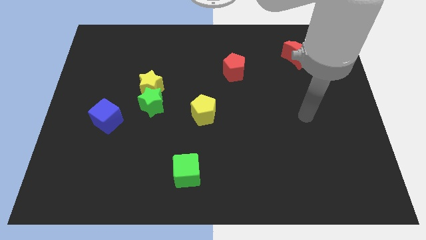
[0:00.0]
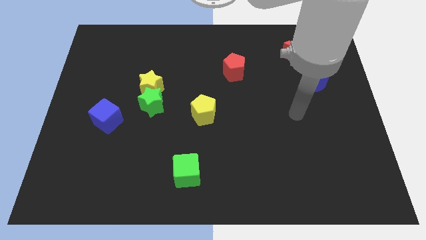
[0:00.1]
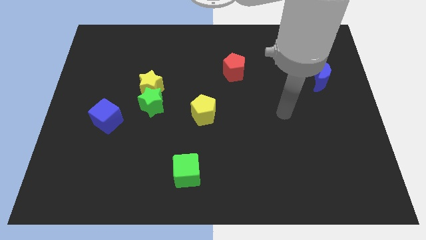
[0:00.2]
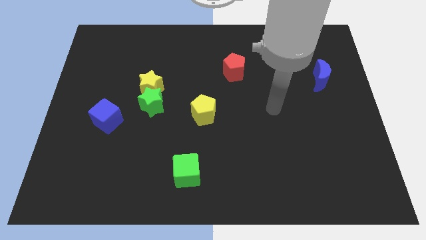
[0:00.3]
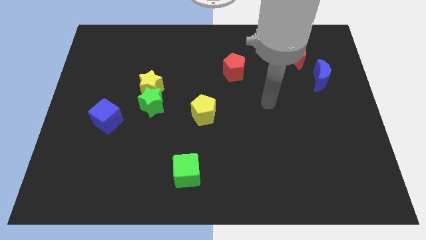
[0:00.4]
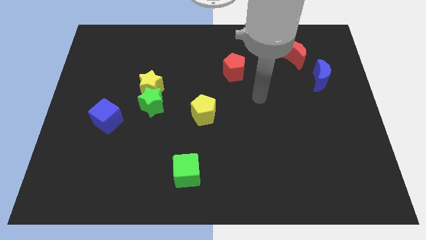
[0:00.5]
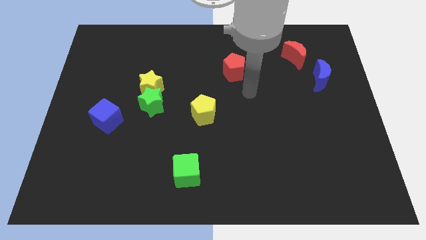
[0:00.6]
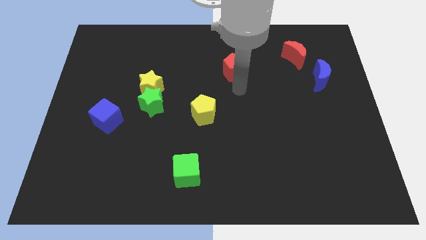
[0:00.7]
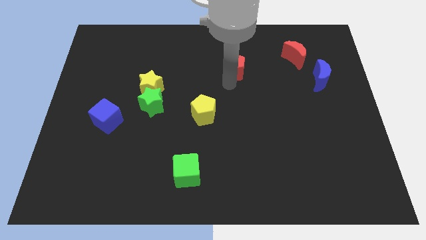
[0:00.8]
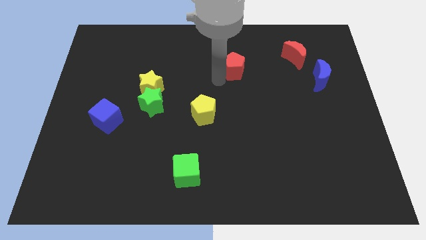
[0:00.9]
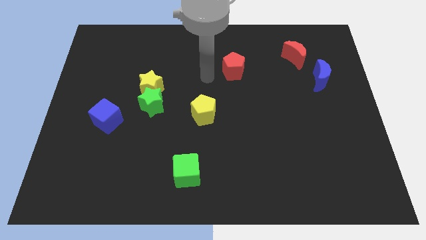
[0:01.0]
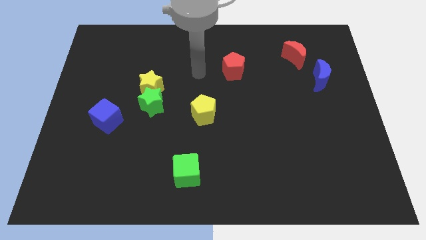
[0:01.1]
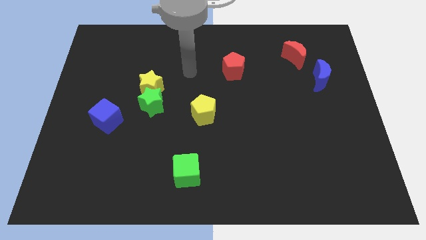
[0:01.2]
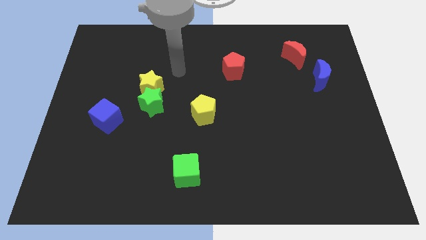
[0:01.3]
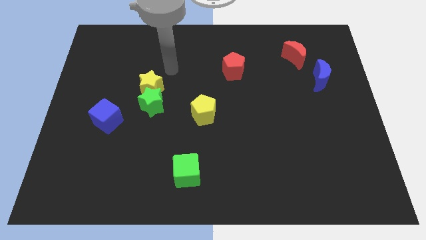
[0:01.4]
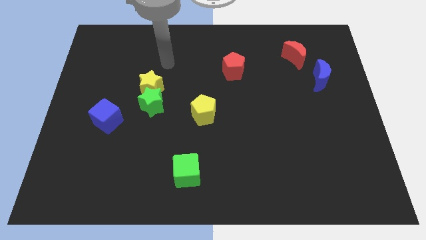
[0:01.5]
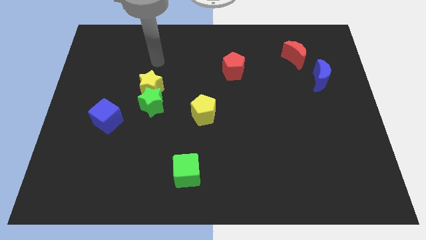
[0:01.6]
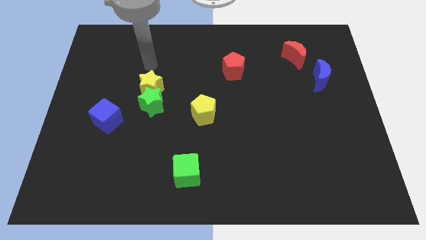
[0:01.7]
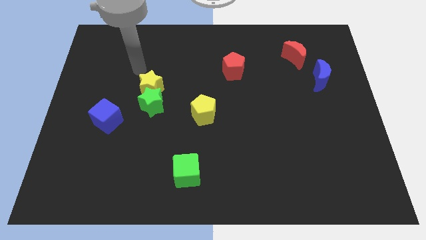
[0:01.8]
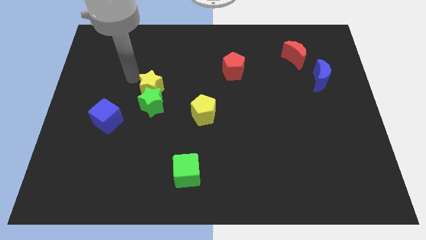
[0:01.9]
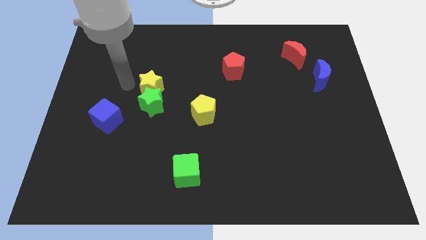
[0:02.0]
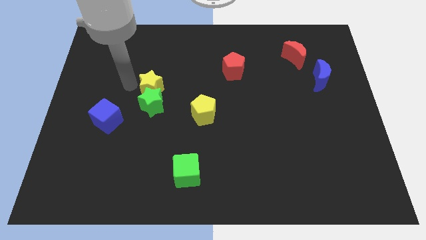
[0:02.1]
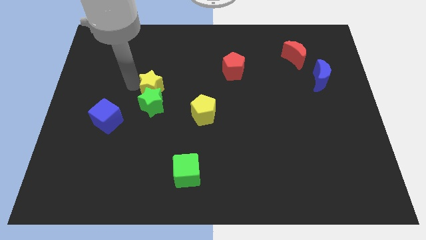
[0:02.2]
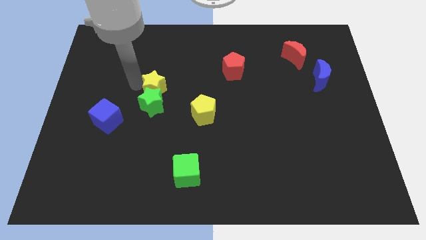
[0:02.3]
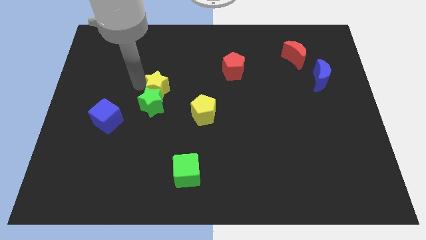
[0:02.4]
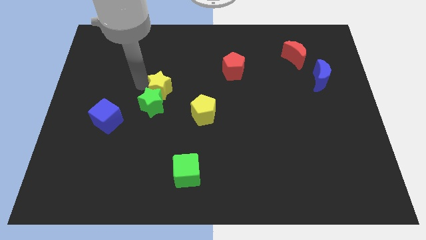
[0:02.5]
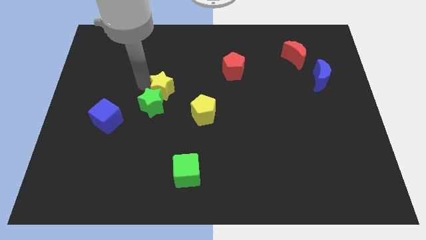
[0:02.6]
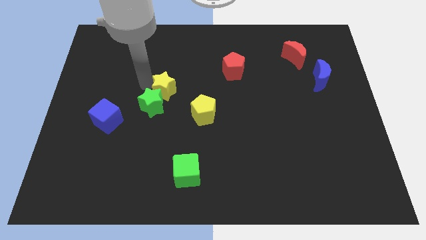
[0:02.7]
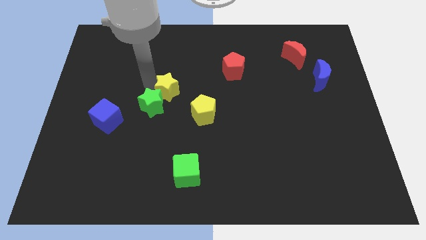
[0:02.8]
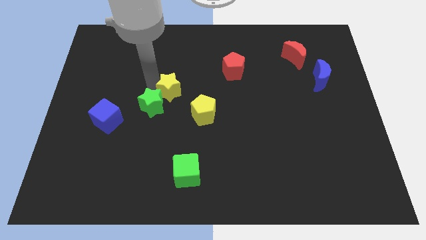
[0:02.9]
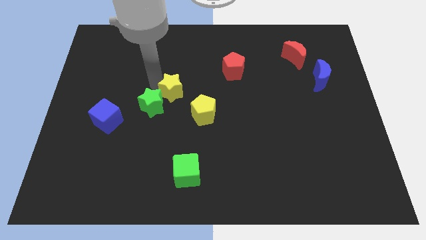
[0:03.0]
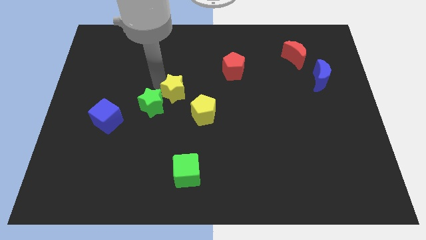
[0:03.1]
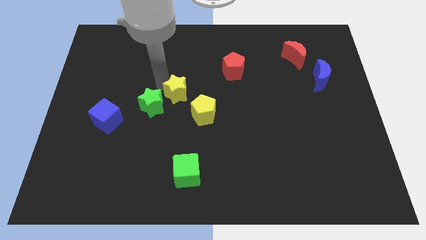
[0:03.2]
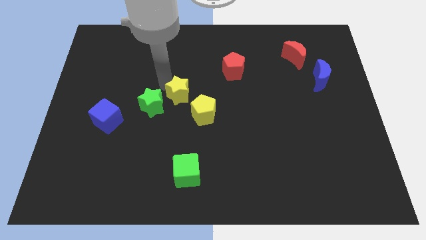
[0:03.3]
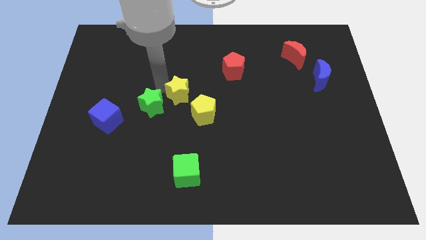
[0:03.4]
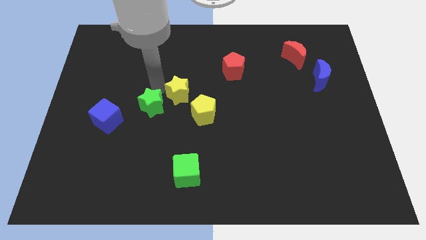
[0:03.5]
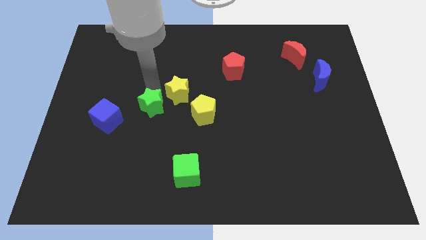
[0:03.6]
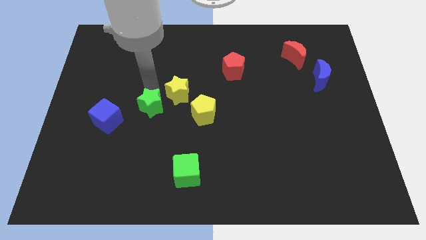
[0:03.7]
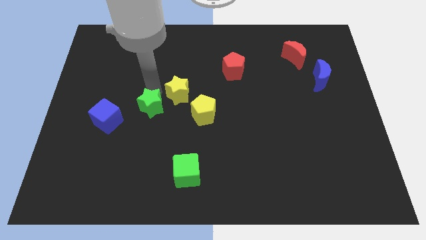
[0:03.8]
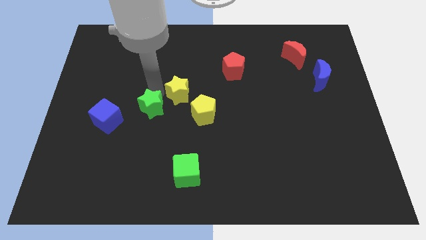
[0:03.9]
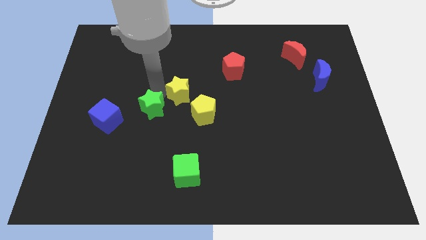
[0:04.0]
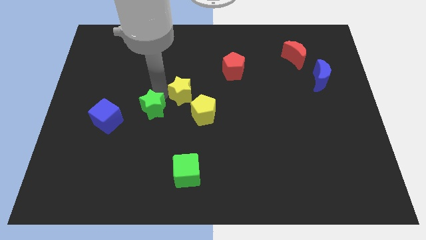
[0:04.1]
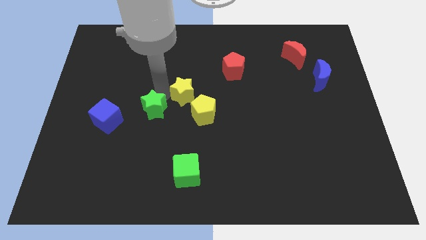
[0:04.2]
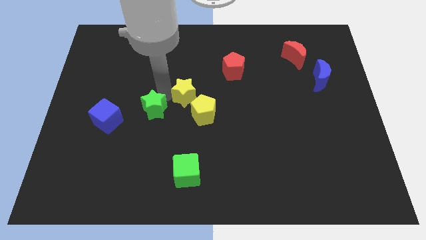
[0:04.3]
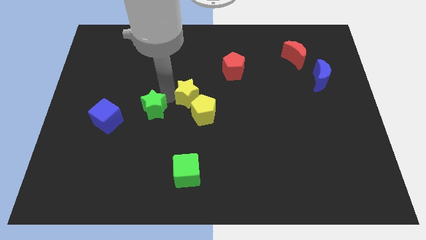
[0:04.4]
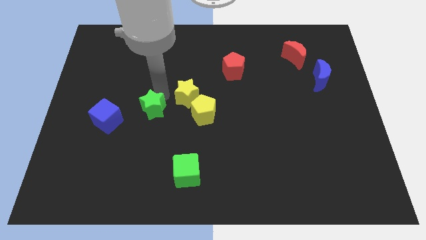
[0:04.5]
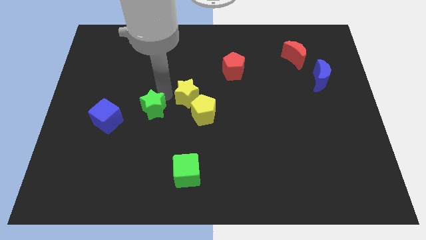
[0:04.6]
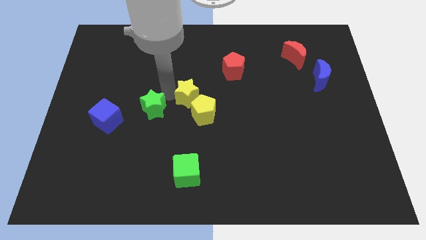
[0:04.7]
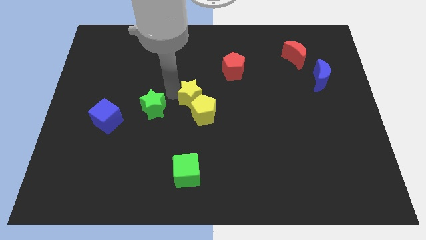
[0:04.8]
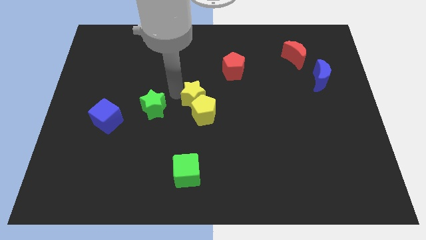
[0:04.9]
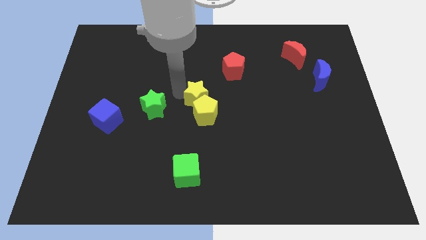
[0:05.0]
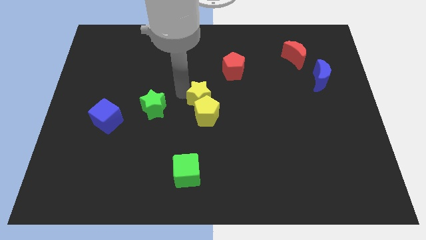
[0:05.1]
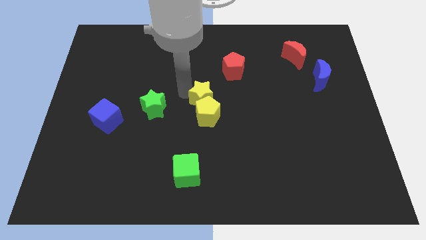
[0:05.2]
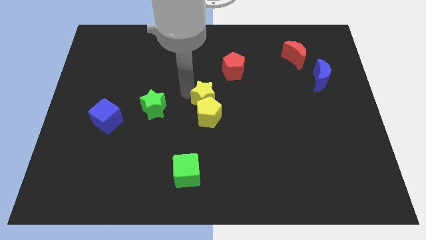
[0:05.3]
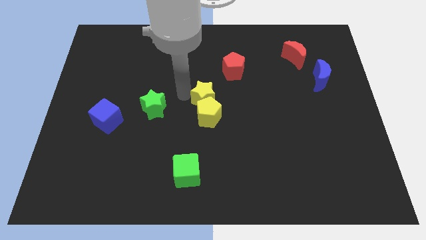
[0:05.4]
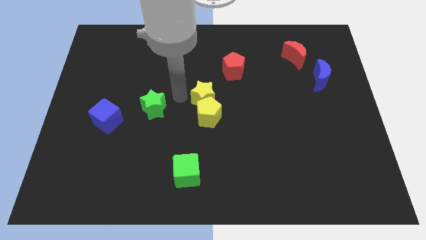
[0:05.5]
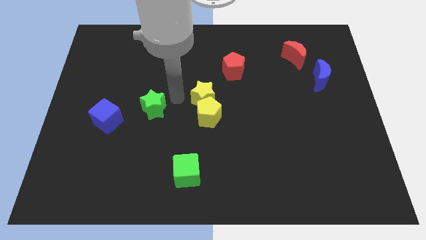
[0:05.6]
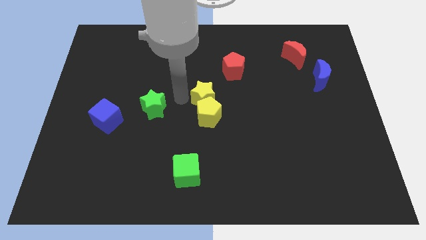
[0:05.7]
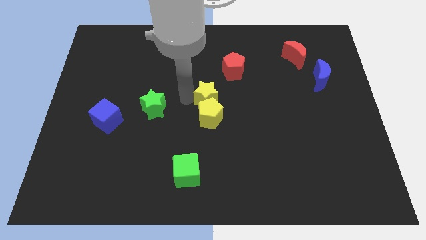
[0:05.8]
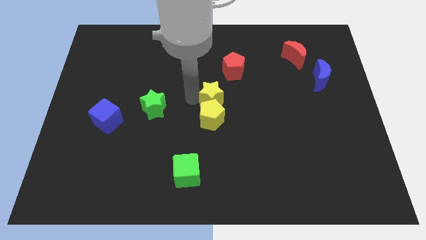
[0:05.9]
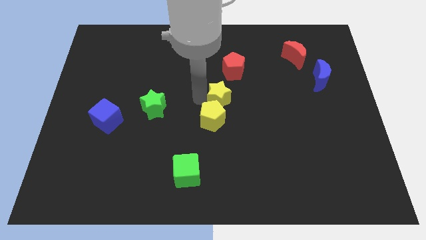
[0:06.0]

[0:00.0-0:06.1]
move the yellow star below the red pentagon
